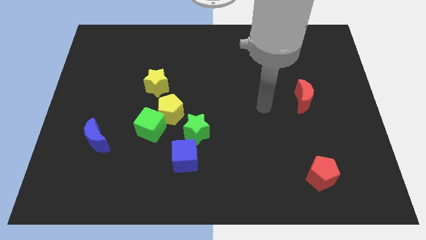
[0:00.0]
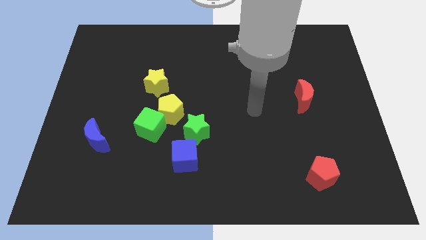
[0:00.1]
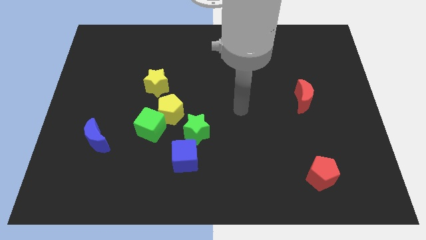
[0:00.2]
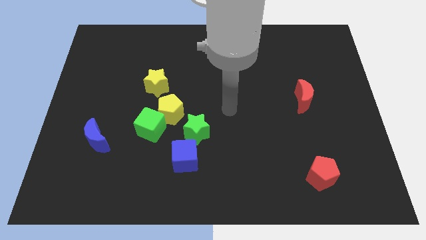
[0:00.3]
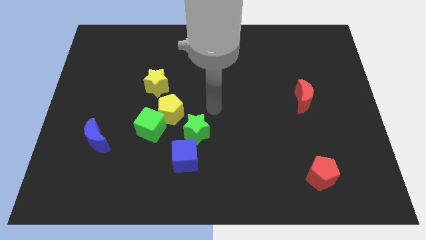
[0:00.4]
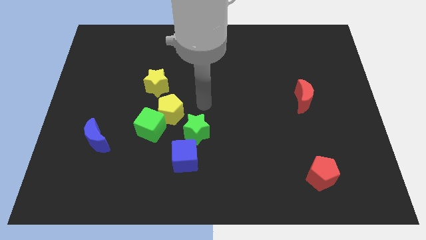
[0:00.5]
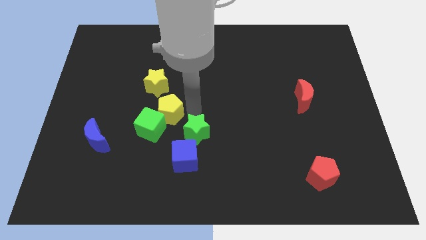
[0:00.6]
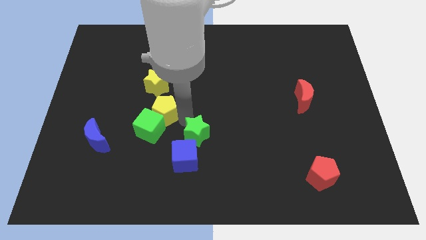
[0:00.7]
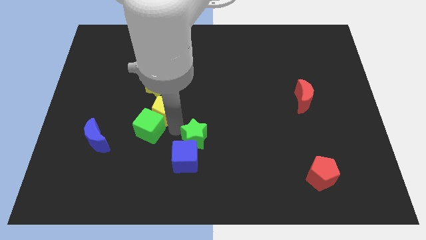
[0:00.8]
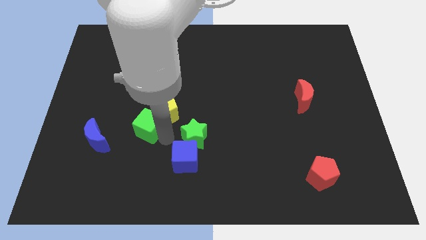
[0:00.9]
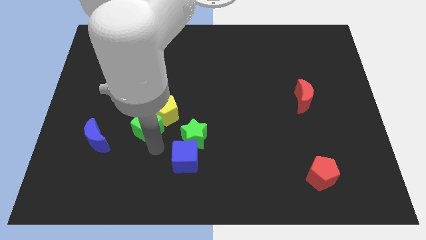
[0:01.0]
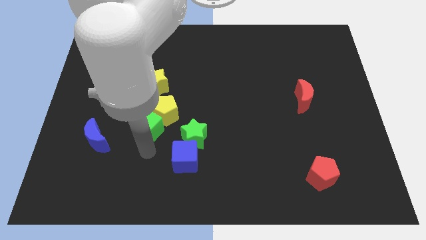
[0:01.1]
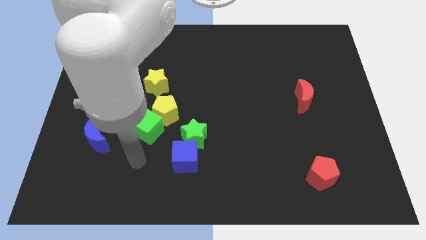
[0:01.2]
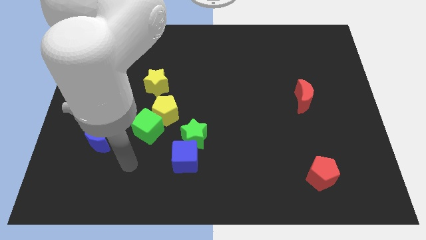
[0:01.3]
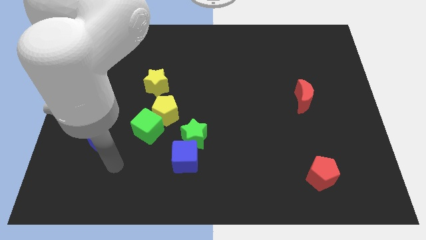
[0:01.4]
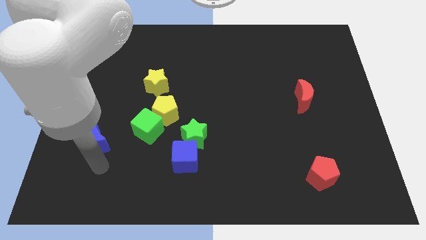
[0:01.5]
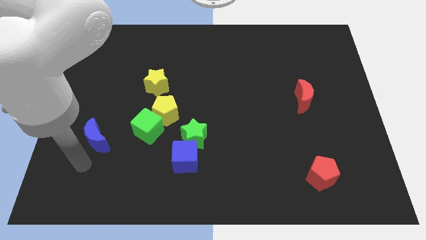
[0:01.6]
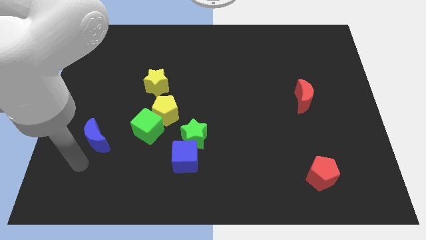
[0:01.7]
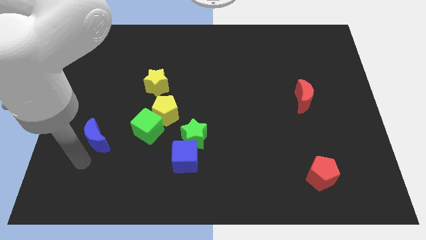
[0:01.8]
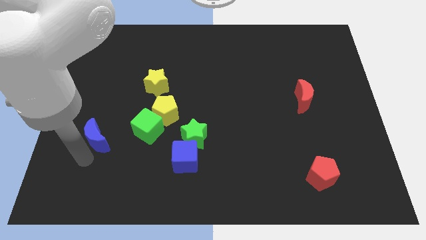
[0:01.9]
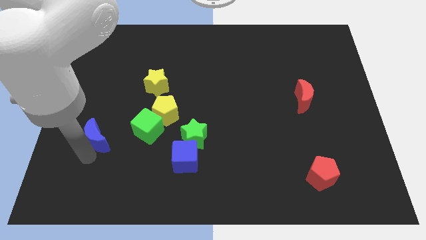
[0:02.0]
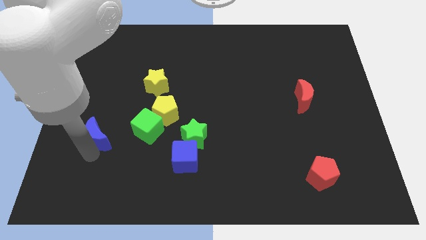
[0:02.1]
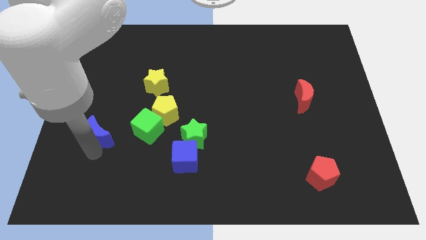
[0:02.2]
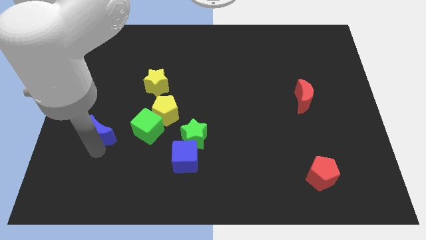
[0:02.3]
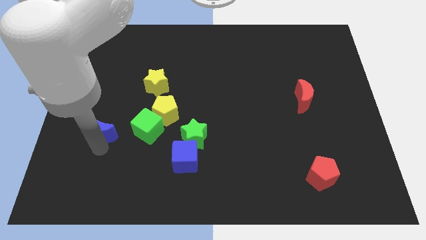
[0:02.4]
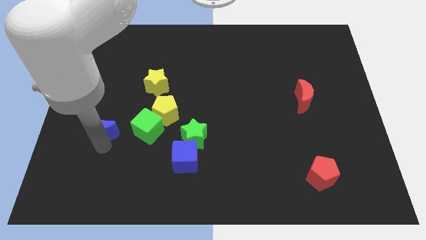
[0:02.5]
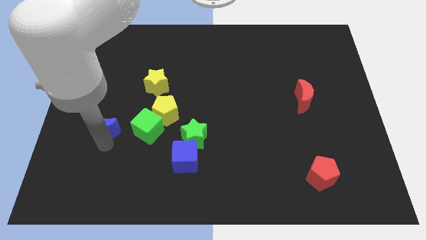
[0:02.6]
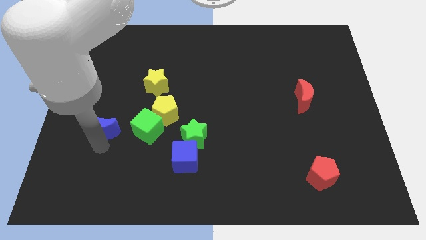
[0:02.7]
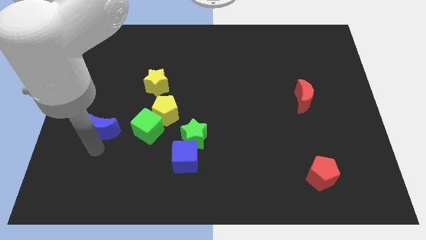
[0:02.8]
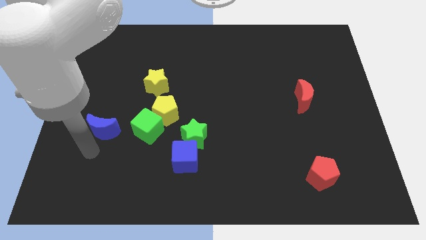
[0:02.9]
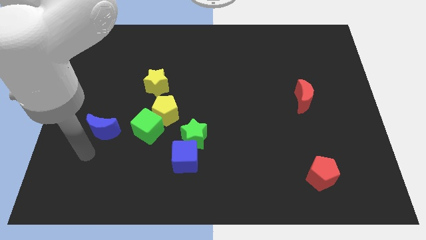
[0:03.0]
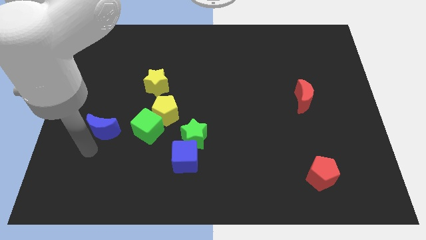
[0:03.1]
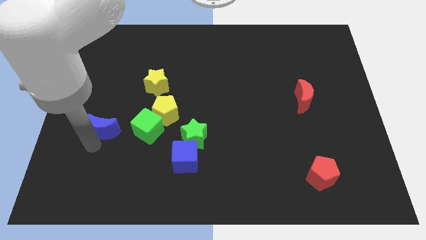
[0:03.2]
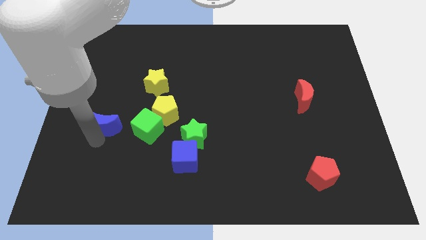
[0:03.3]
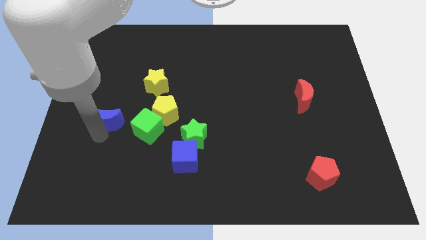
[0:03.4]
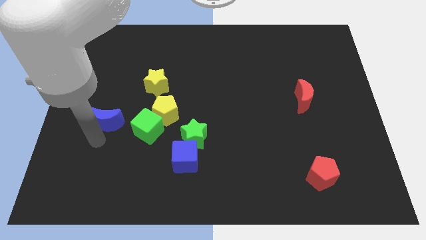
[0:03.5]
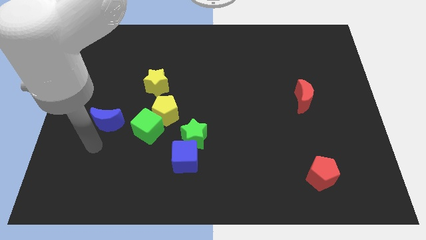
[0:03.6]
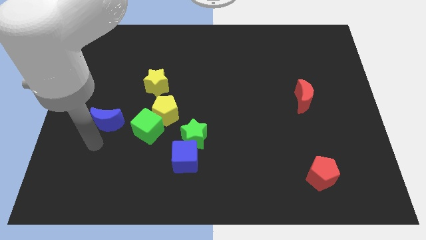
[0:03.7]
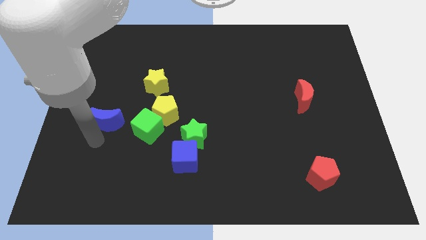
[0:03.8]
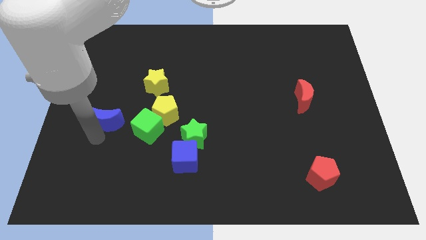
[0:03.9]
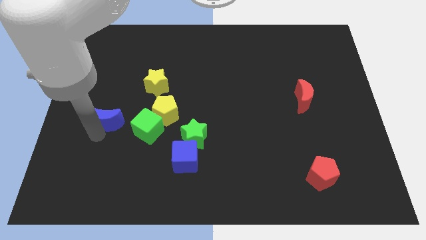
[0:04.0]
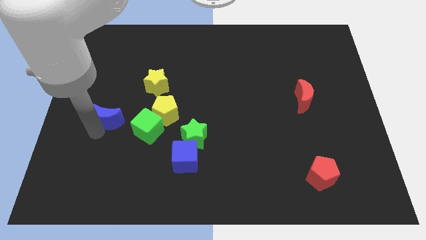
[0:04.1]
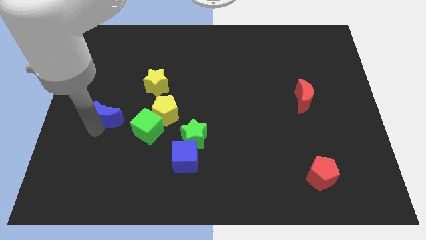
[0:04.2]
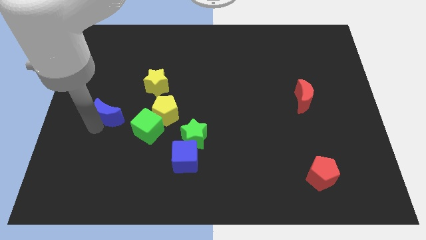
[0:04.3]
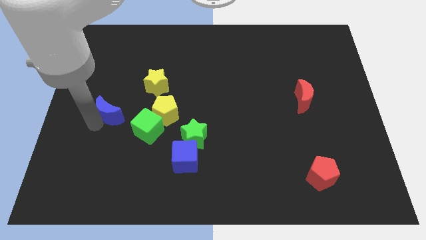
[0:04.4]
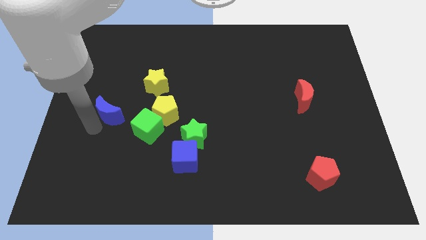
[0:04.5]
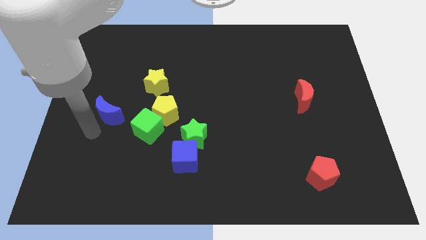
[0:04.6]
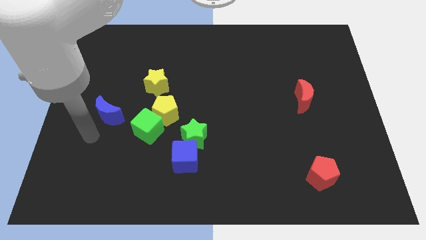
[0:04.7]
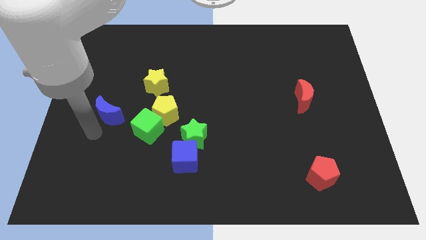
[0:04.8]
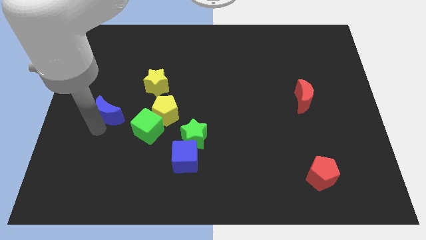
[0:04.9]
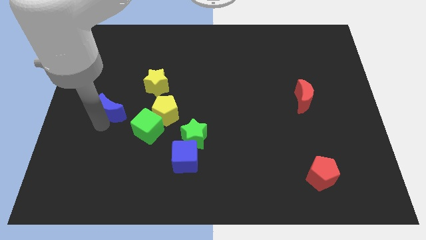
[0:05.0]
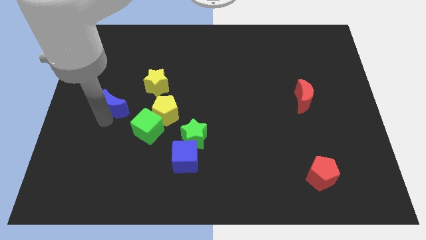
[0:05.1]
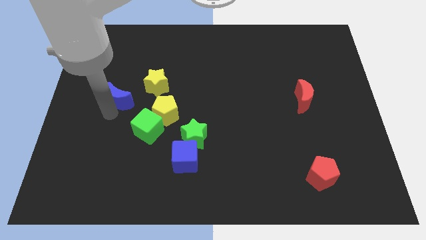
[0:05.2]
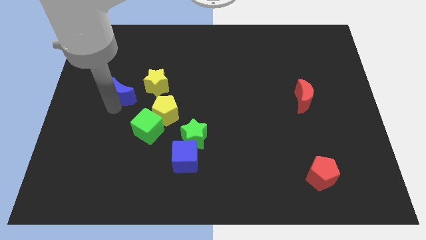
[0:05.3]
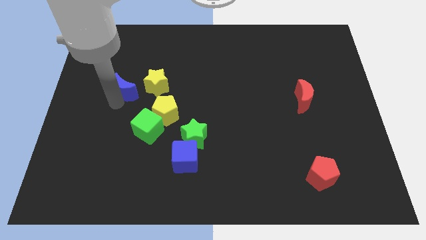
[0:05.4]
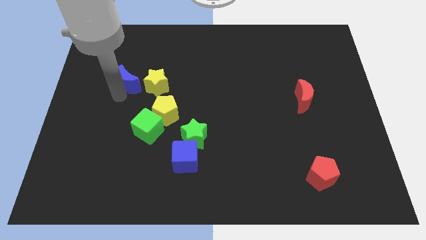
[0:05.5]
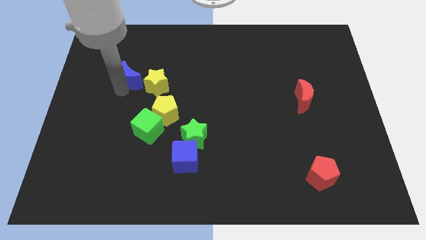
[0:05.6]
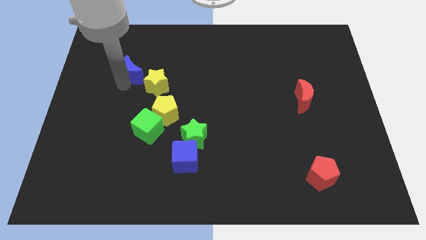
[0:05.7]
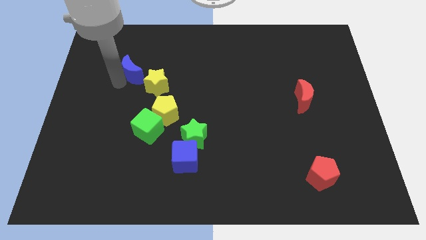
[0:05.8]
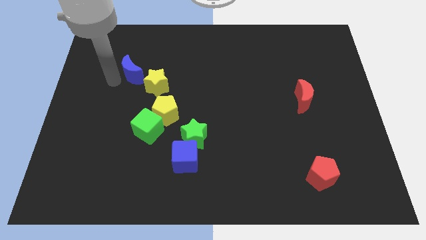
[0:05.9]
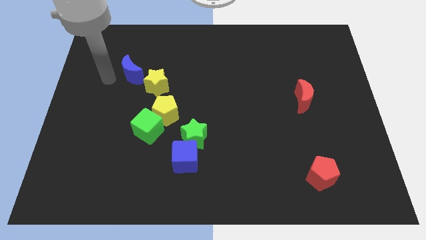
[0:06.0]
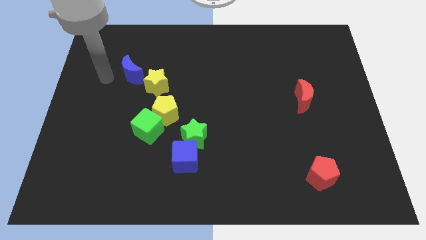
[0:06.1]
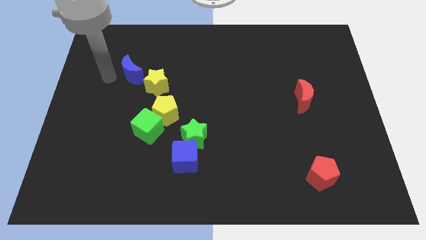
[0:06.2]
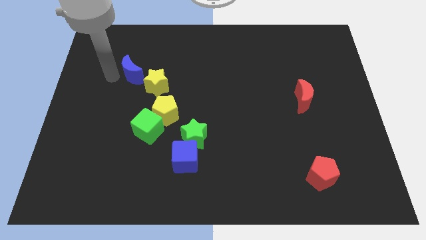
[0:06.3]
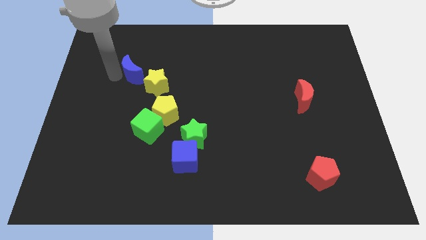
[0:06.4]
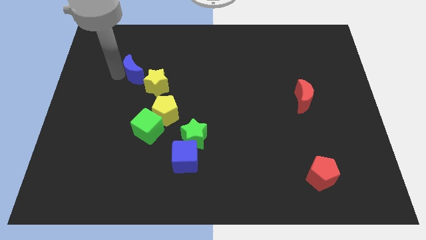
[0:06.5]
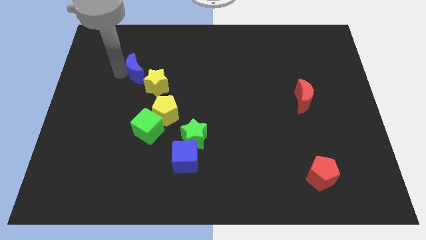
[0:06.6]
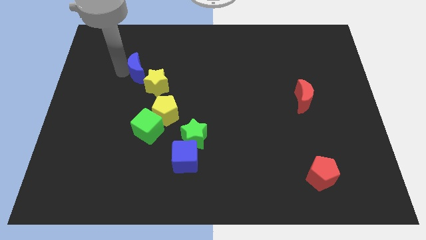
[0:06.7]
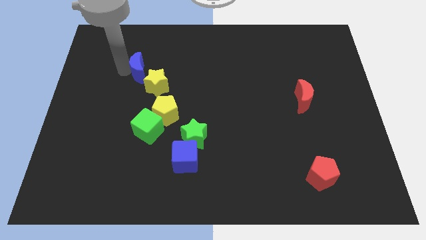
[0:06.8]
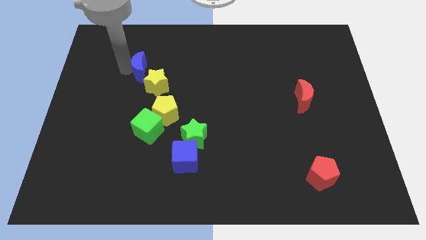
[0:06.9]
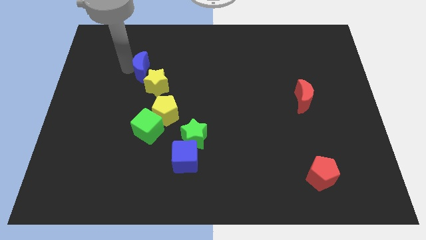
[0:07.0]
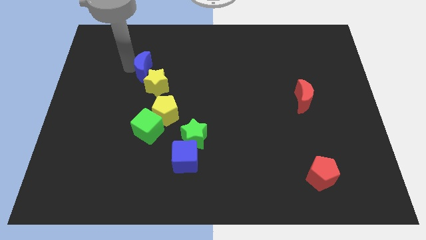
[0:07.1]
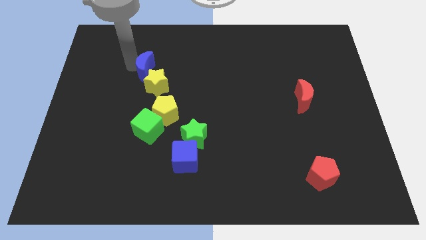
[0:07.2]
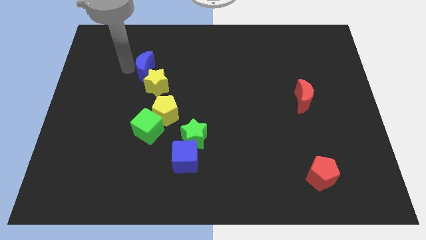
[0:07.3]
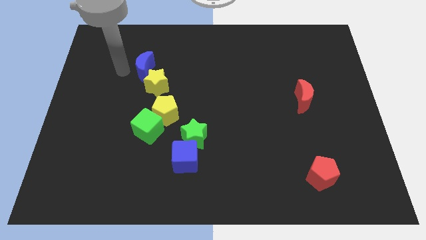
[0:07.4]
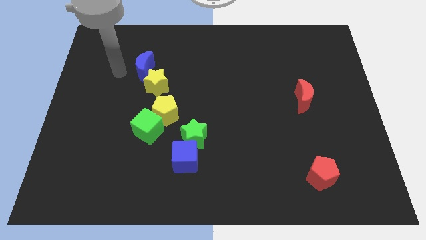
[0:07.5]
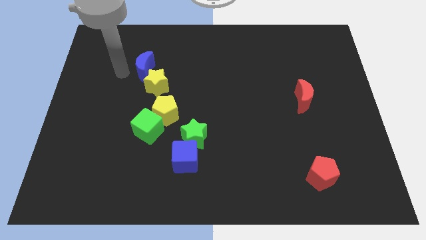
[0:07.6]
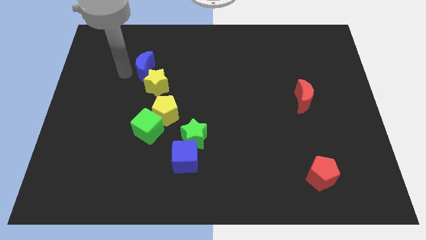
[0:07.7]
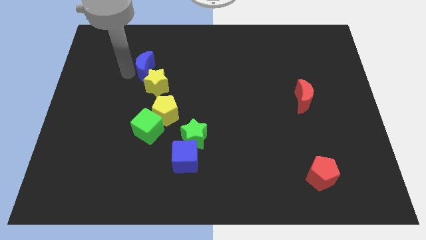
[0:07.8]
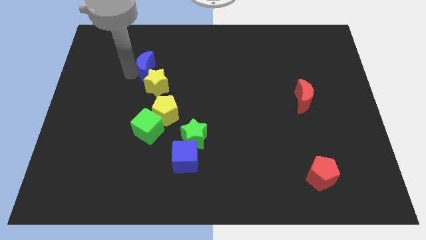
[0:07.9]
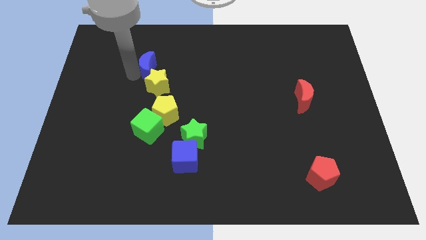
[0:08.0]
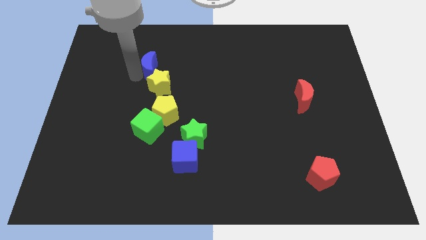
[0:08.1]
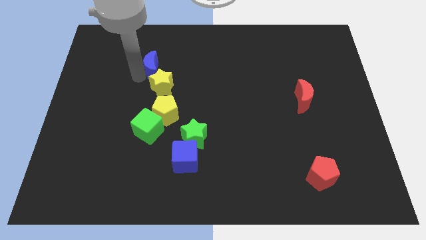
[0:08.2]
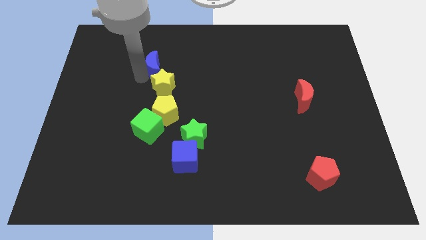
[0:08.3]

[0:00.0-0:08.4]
move the blue moon up and to the right diagonally
